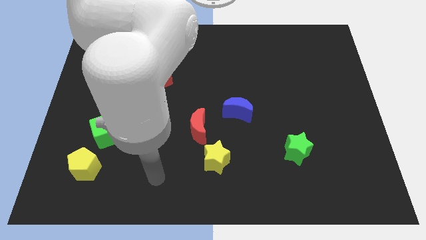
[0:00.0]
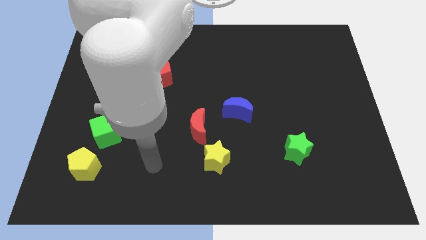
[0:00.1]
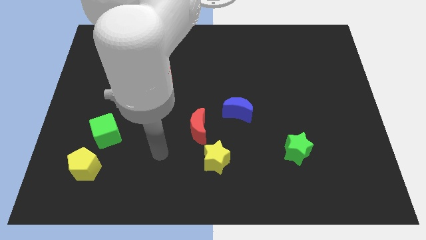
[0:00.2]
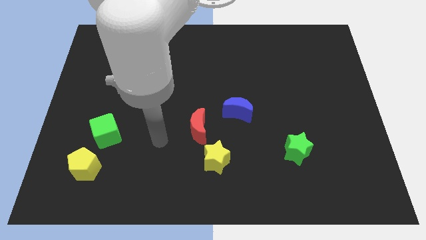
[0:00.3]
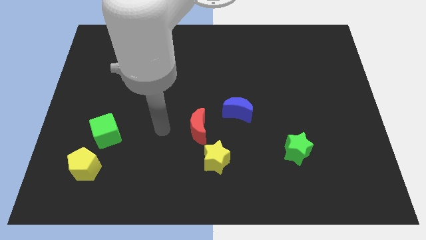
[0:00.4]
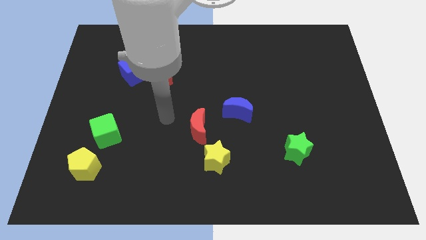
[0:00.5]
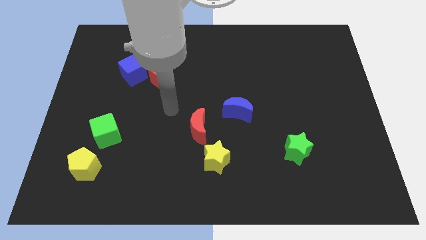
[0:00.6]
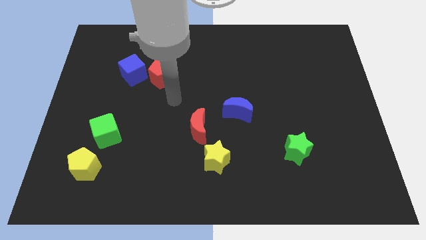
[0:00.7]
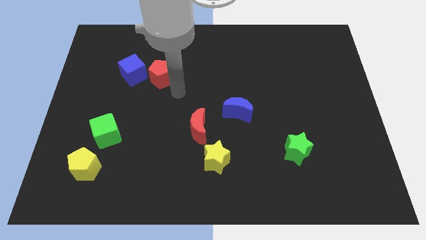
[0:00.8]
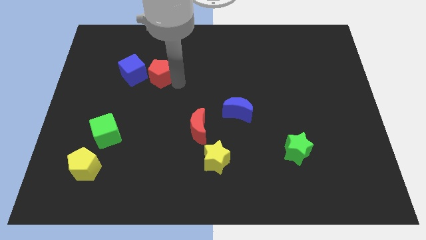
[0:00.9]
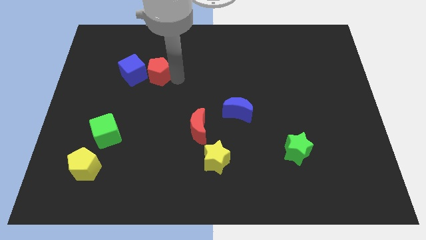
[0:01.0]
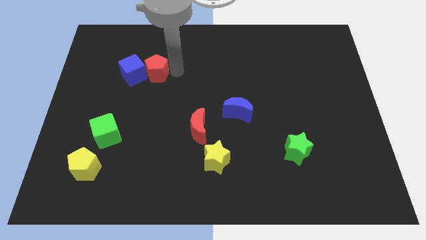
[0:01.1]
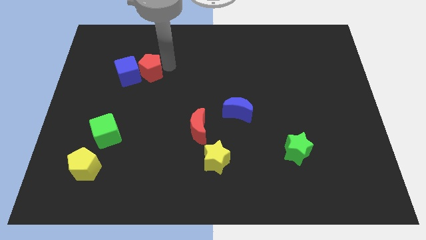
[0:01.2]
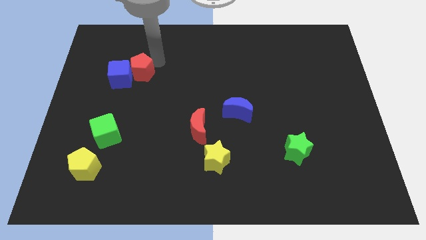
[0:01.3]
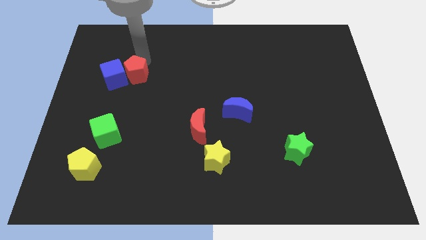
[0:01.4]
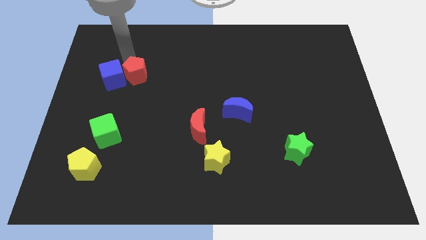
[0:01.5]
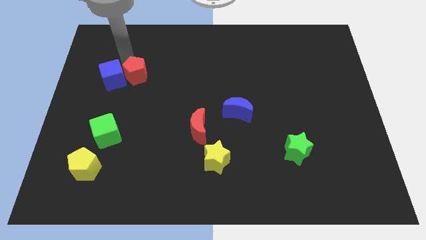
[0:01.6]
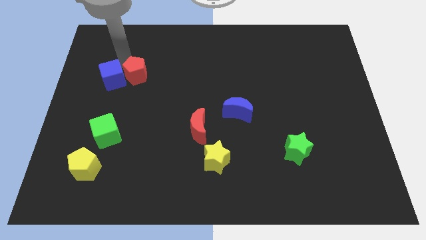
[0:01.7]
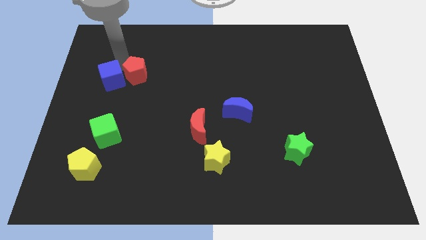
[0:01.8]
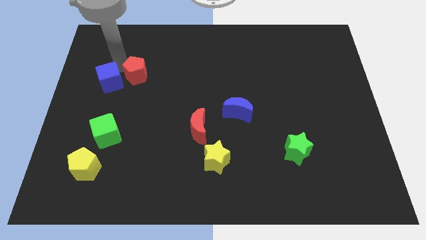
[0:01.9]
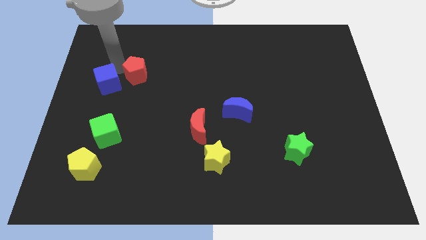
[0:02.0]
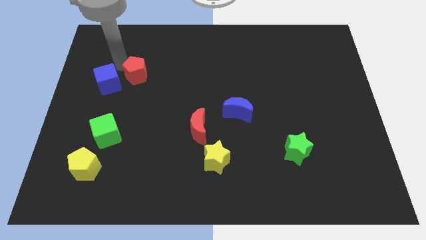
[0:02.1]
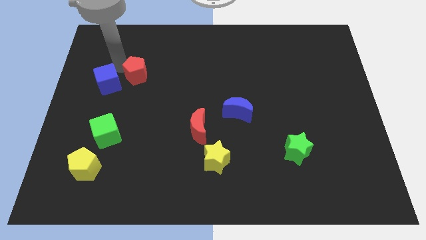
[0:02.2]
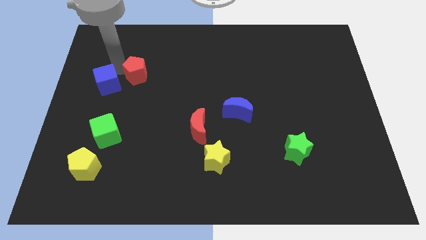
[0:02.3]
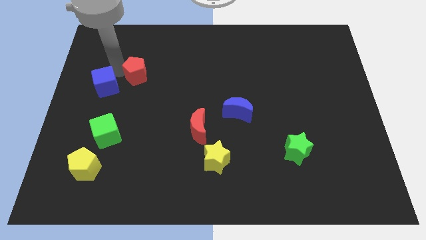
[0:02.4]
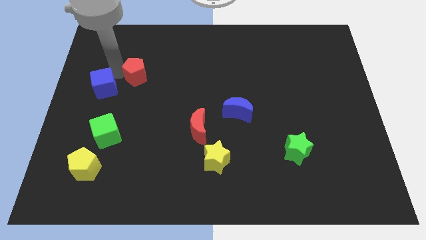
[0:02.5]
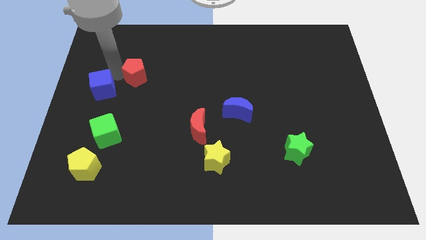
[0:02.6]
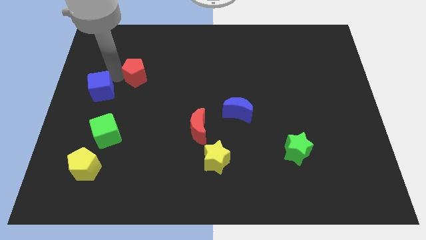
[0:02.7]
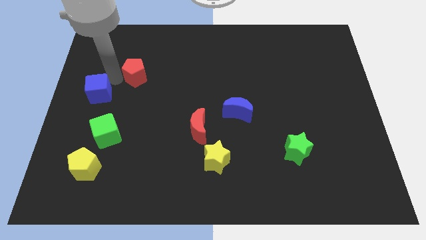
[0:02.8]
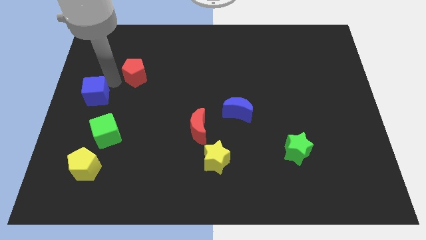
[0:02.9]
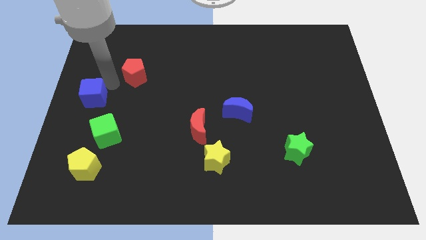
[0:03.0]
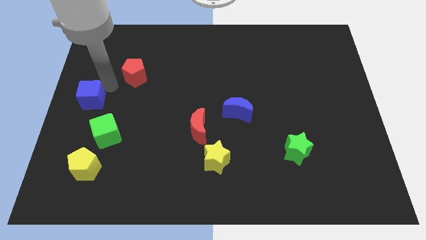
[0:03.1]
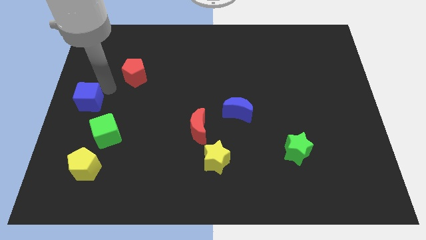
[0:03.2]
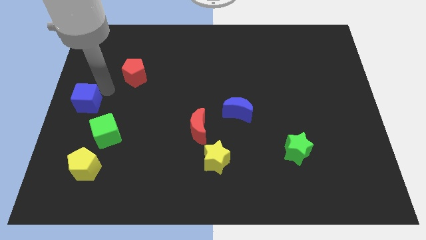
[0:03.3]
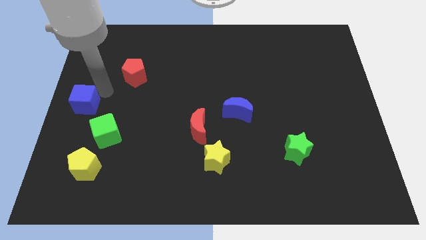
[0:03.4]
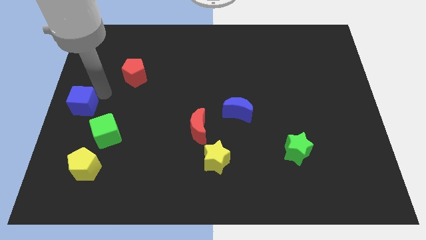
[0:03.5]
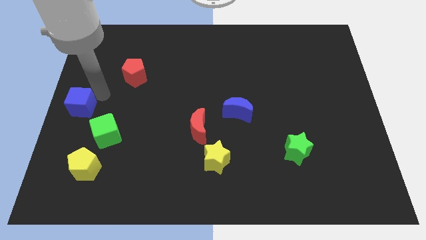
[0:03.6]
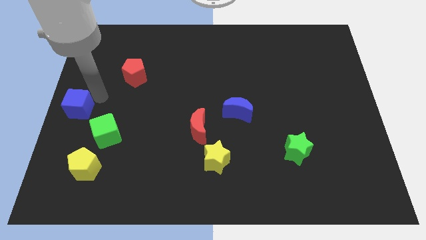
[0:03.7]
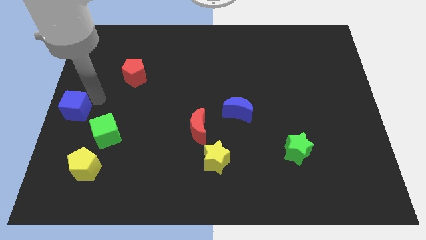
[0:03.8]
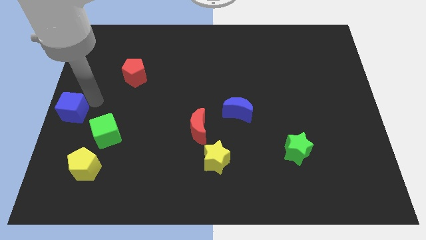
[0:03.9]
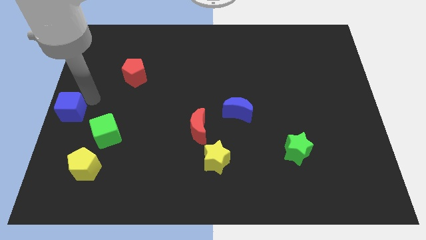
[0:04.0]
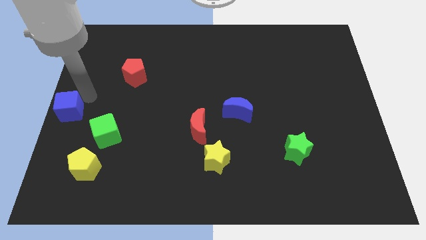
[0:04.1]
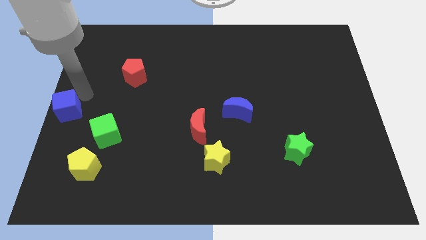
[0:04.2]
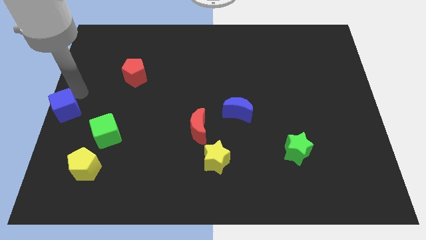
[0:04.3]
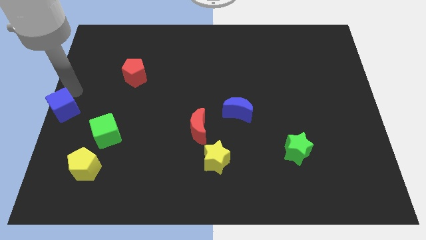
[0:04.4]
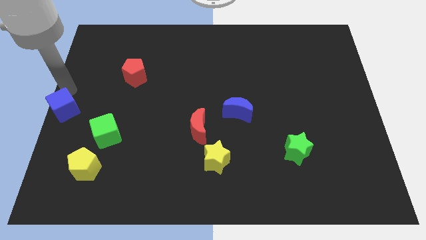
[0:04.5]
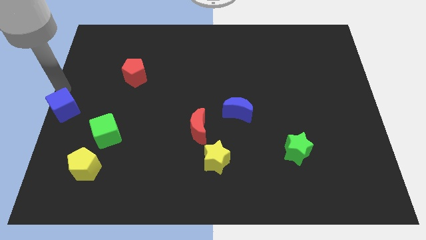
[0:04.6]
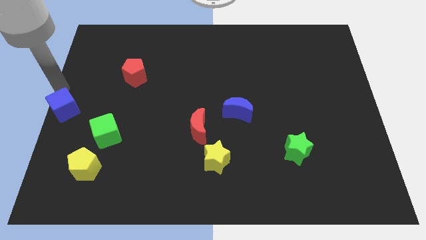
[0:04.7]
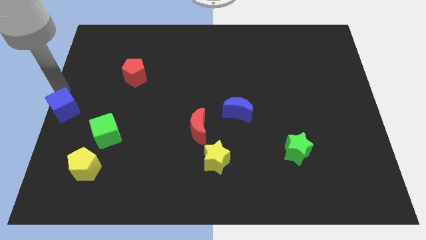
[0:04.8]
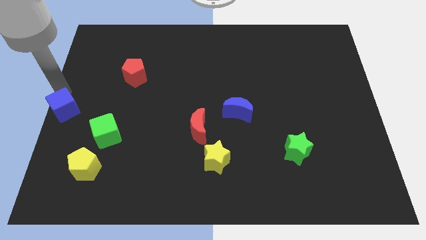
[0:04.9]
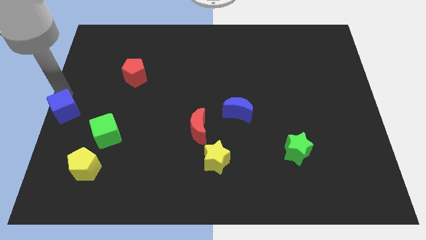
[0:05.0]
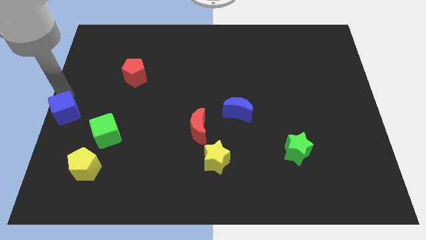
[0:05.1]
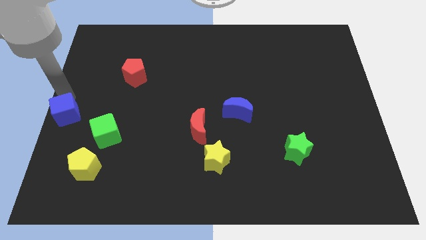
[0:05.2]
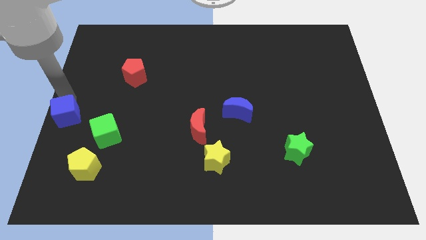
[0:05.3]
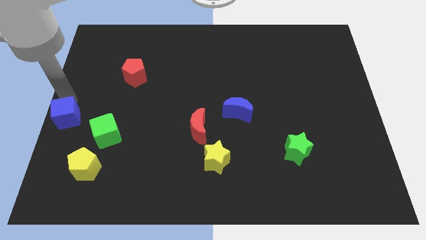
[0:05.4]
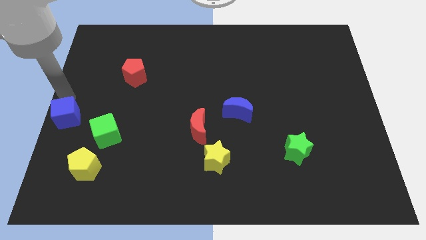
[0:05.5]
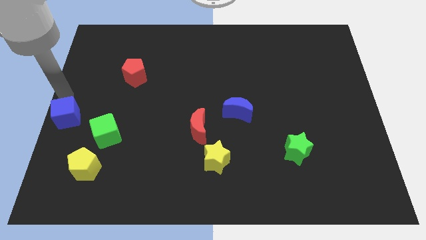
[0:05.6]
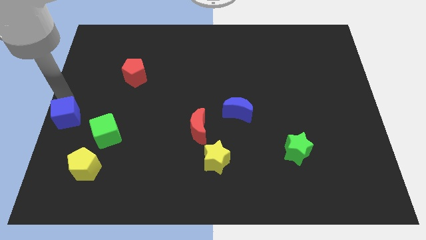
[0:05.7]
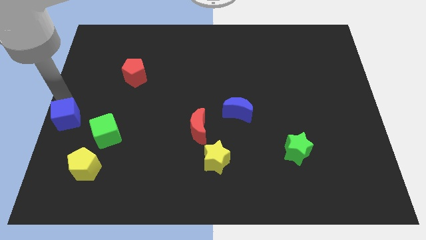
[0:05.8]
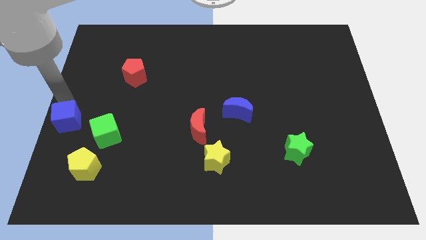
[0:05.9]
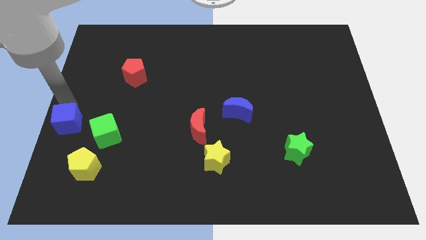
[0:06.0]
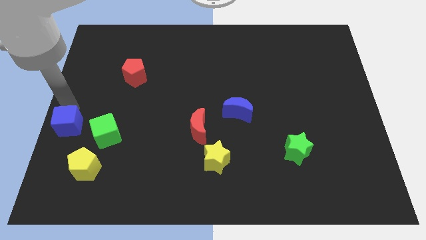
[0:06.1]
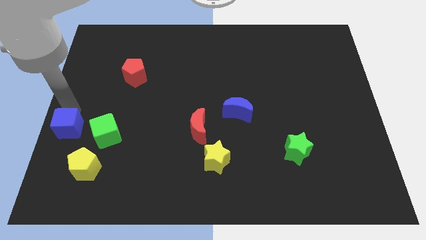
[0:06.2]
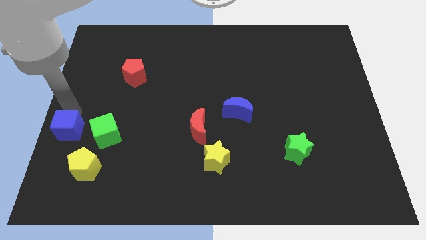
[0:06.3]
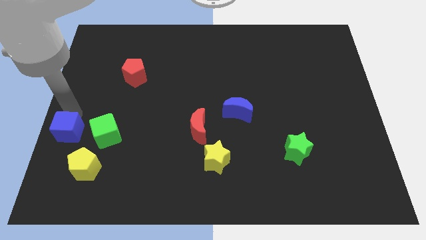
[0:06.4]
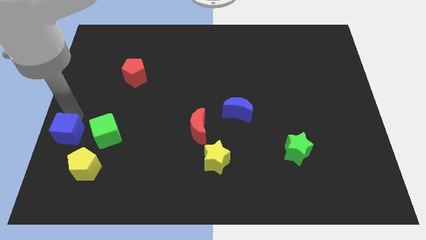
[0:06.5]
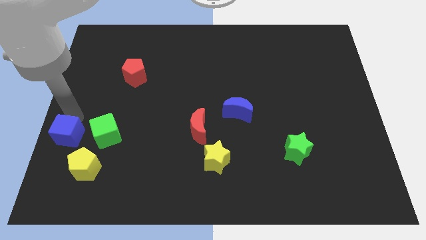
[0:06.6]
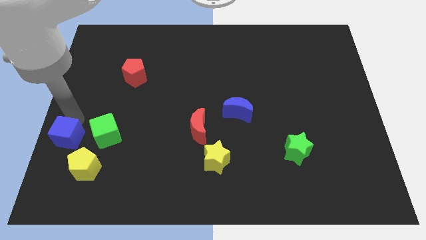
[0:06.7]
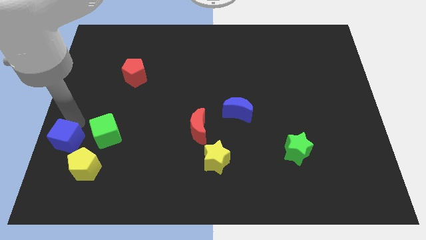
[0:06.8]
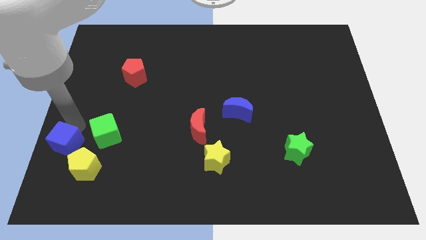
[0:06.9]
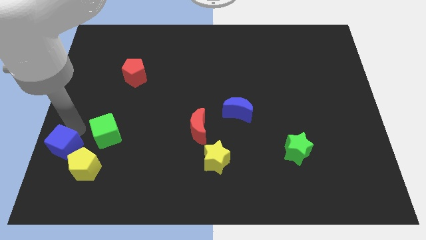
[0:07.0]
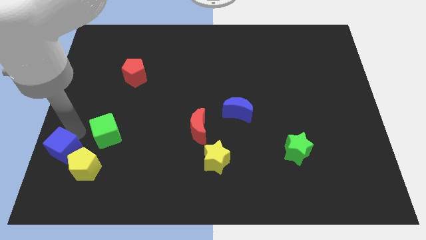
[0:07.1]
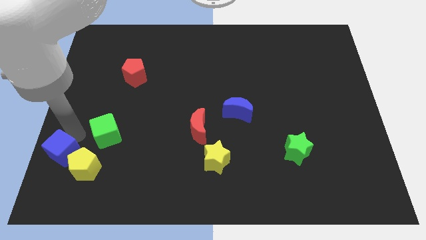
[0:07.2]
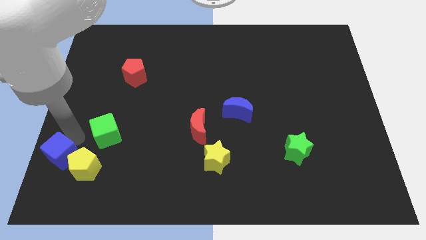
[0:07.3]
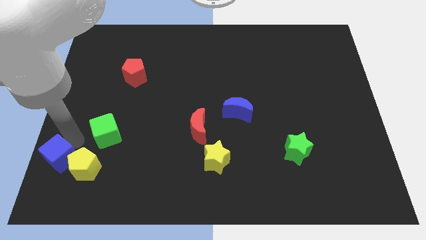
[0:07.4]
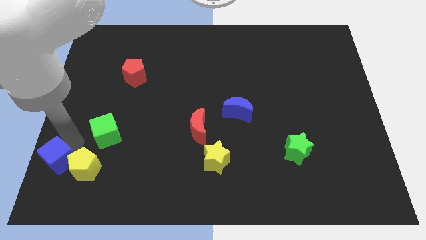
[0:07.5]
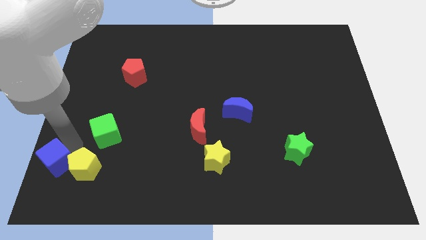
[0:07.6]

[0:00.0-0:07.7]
push the blue cube to the lower left corner
